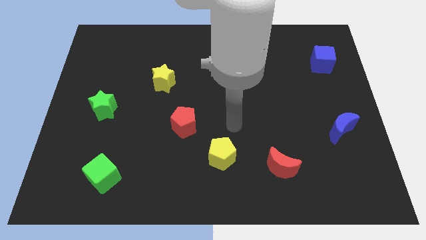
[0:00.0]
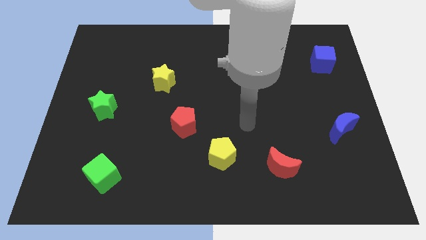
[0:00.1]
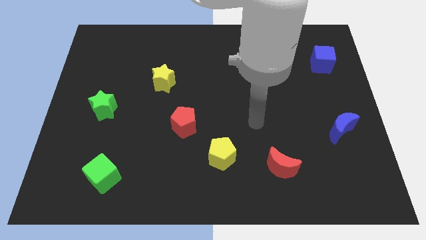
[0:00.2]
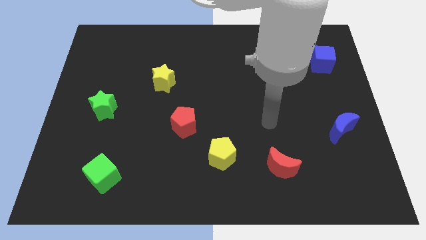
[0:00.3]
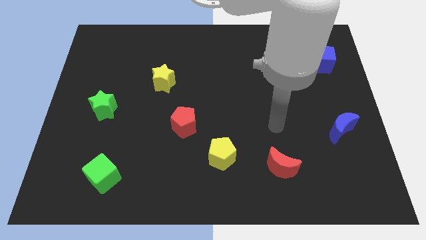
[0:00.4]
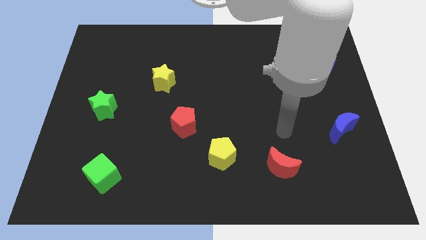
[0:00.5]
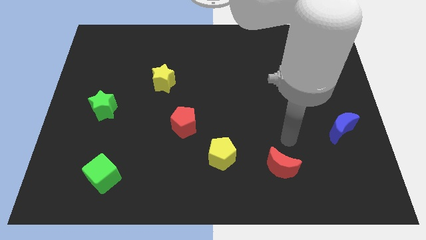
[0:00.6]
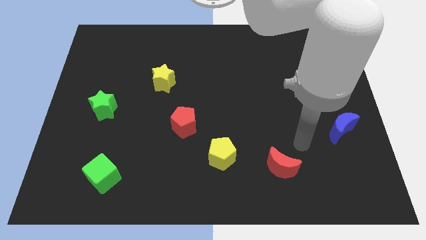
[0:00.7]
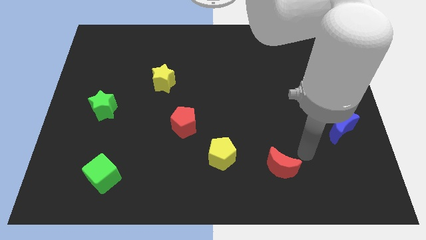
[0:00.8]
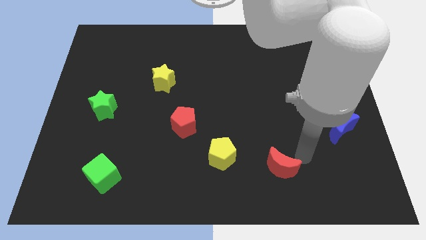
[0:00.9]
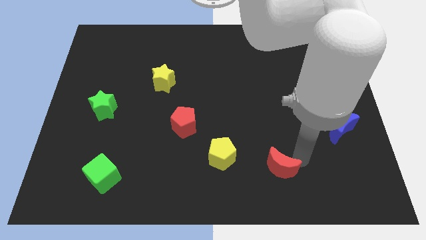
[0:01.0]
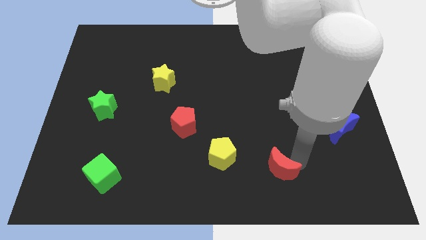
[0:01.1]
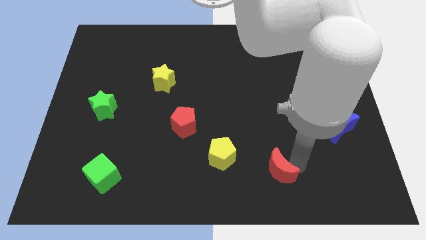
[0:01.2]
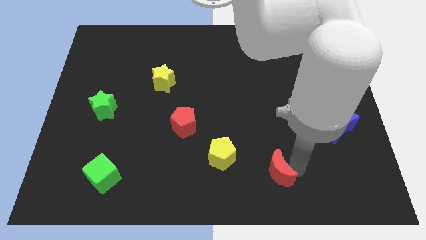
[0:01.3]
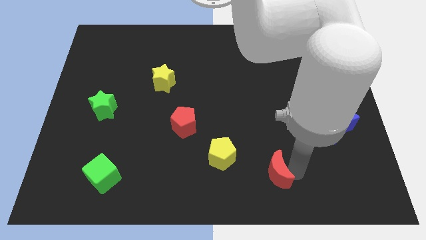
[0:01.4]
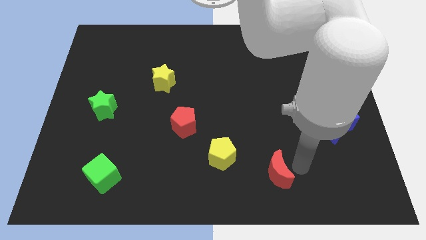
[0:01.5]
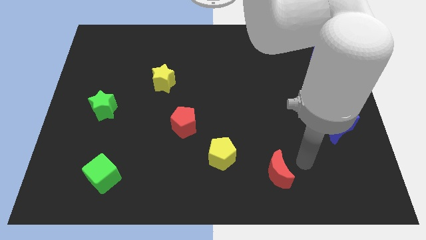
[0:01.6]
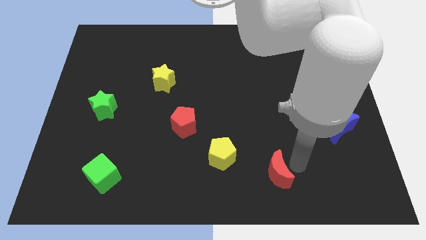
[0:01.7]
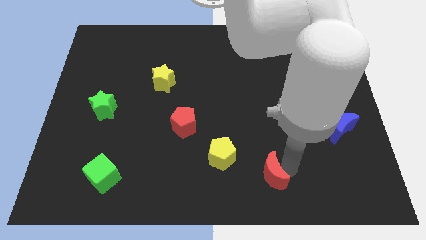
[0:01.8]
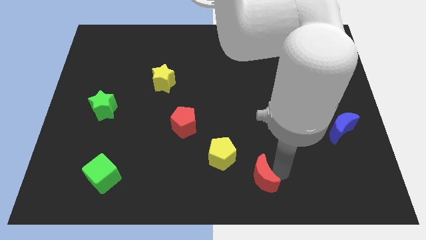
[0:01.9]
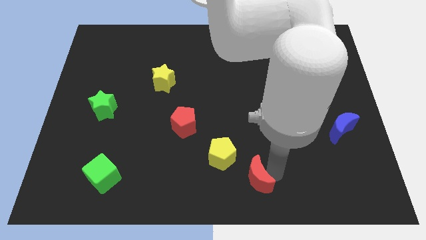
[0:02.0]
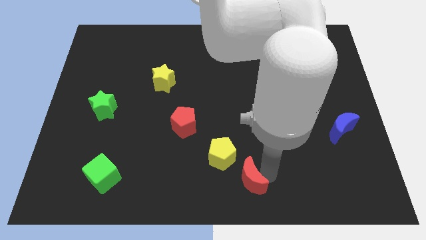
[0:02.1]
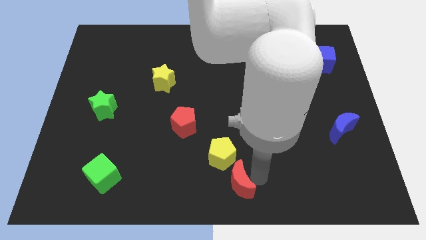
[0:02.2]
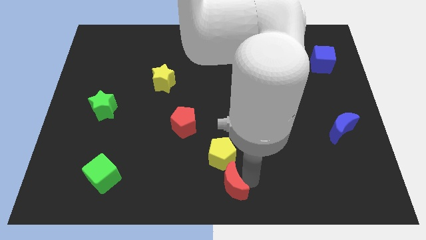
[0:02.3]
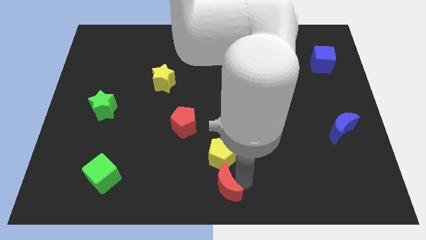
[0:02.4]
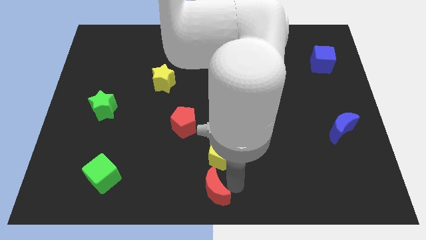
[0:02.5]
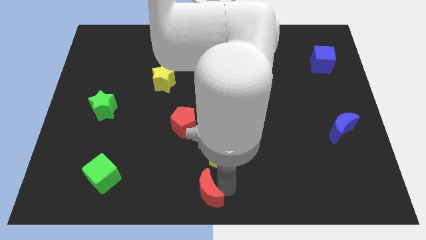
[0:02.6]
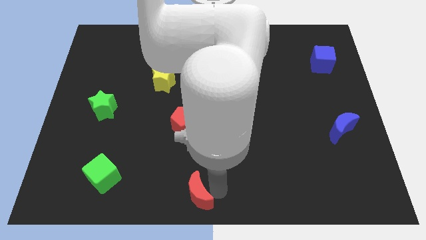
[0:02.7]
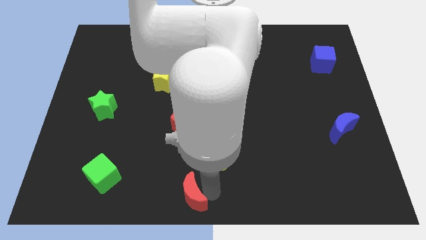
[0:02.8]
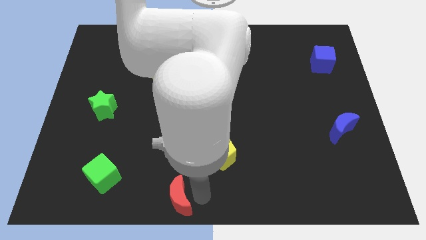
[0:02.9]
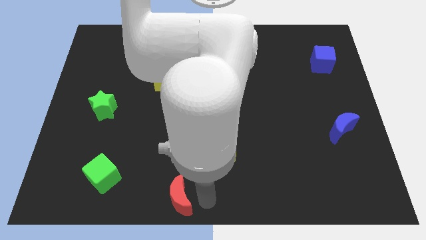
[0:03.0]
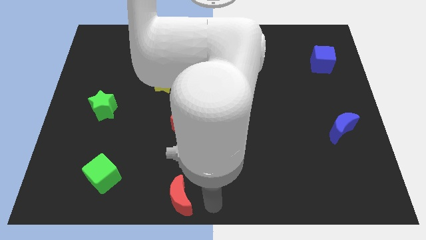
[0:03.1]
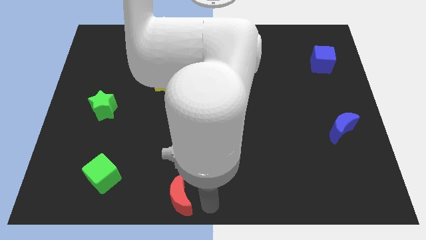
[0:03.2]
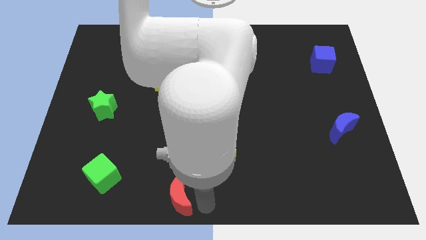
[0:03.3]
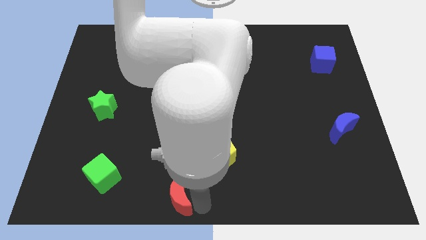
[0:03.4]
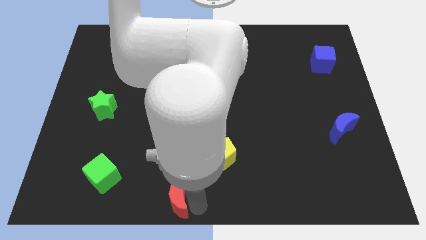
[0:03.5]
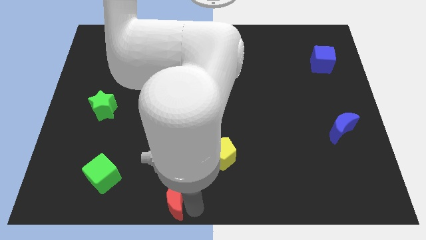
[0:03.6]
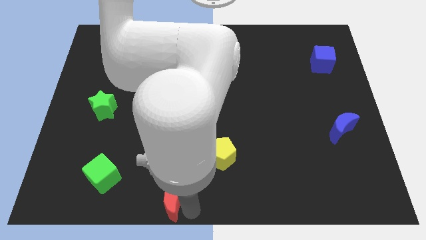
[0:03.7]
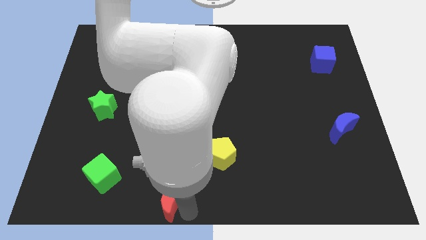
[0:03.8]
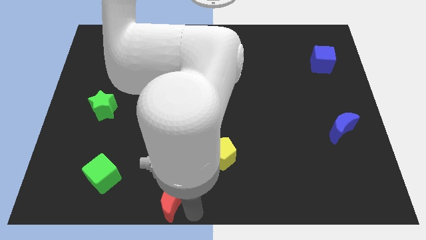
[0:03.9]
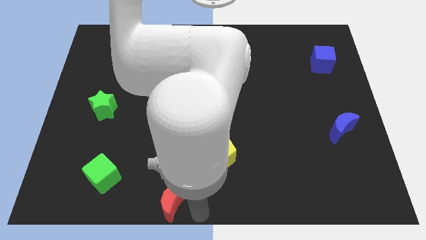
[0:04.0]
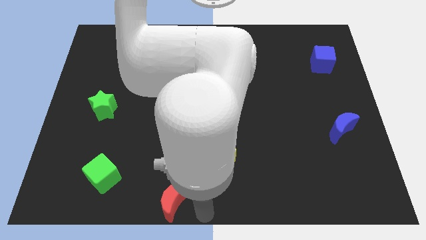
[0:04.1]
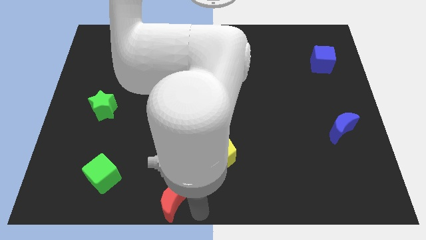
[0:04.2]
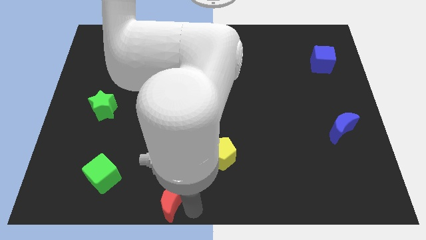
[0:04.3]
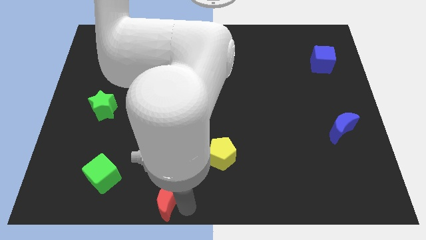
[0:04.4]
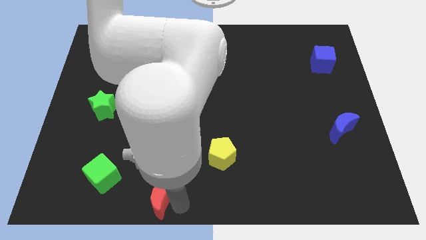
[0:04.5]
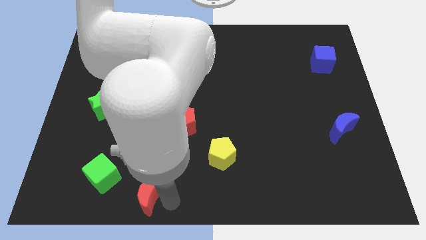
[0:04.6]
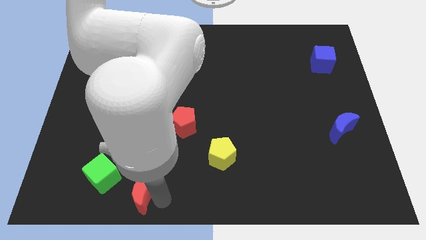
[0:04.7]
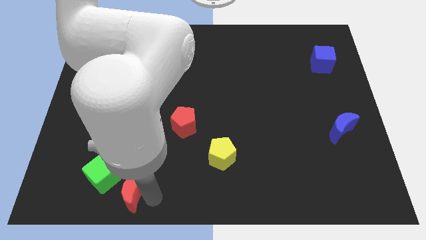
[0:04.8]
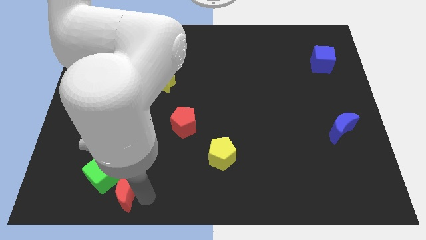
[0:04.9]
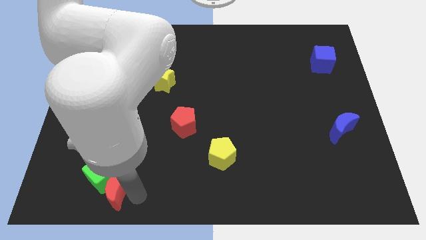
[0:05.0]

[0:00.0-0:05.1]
push the red moon next to the green cube

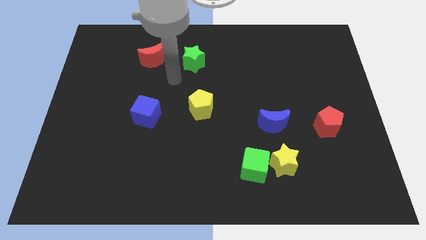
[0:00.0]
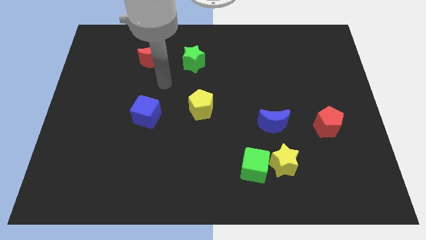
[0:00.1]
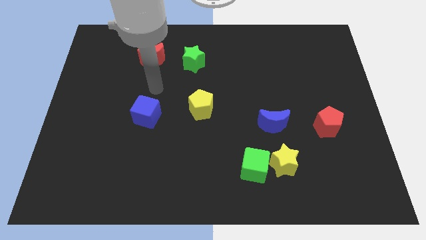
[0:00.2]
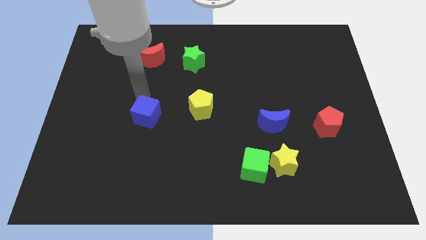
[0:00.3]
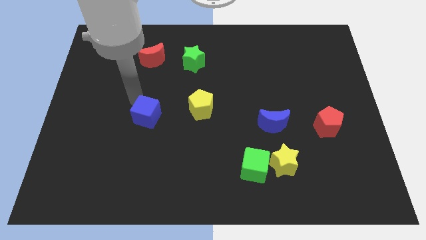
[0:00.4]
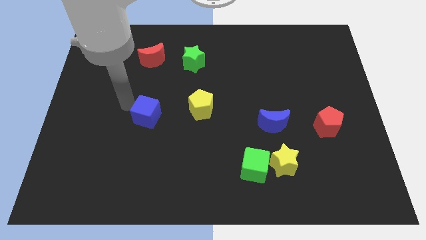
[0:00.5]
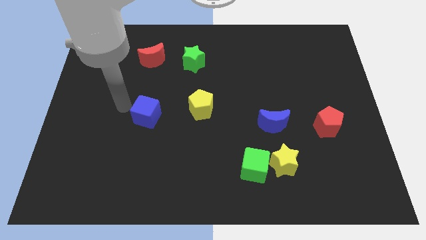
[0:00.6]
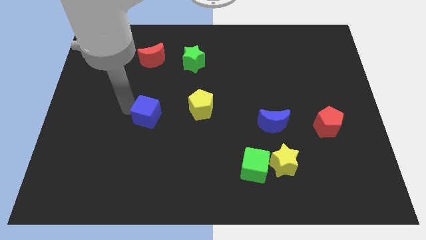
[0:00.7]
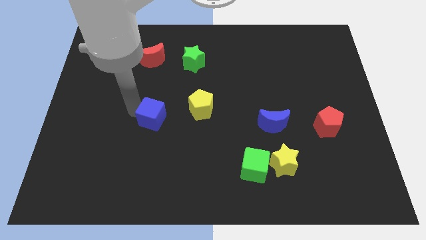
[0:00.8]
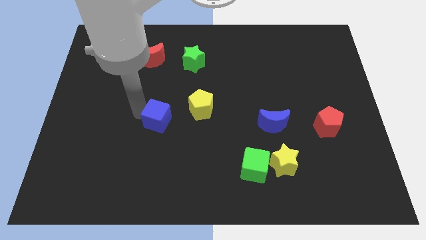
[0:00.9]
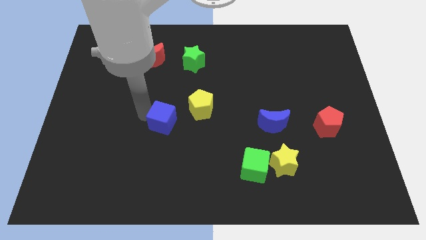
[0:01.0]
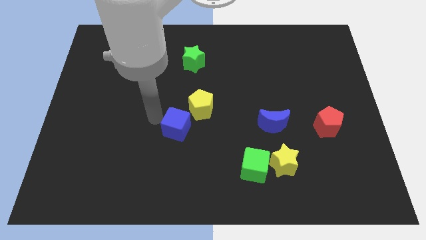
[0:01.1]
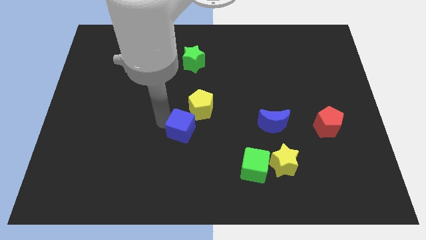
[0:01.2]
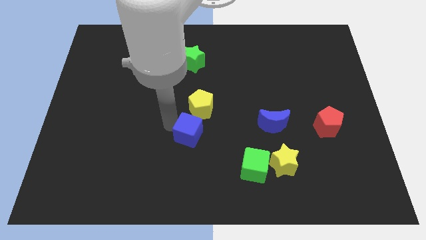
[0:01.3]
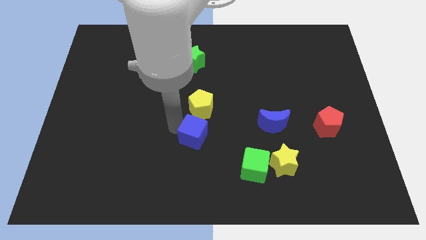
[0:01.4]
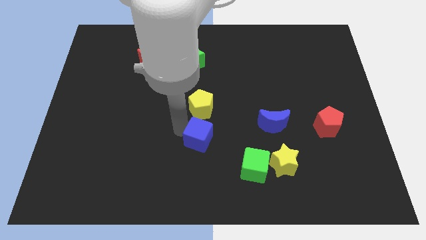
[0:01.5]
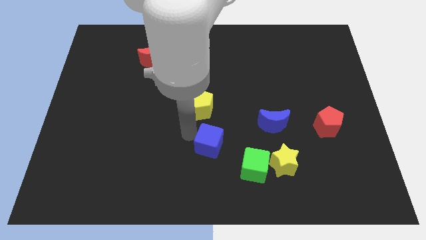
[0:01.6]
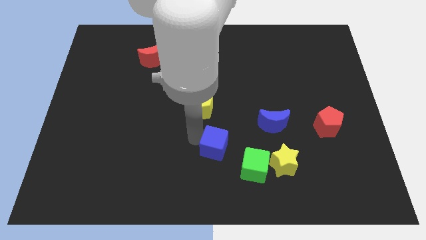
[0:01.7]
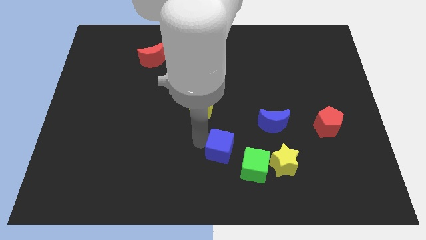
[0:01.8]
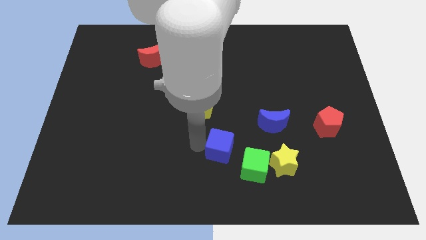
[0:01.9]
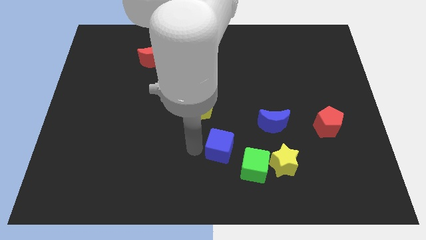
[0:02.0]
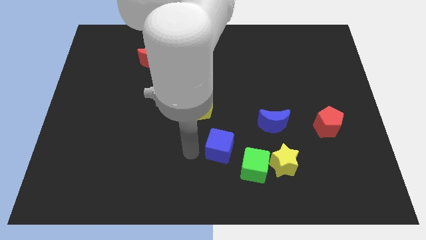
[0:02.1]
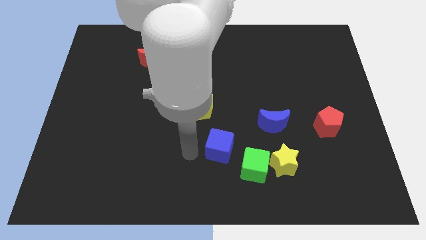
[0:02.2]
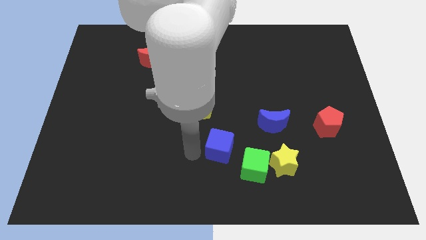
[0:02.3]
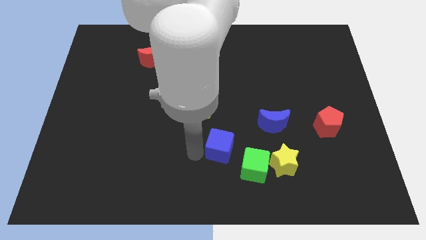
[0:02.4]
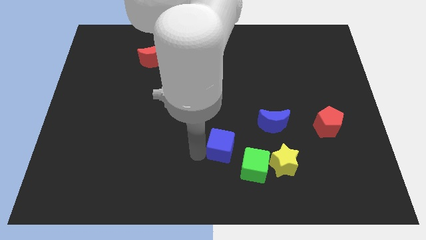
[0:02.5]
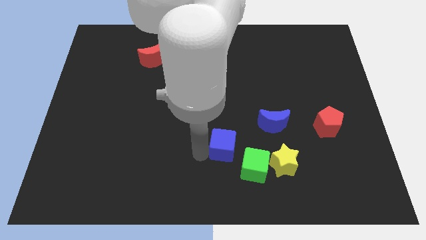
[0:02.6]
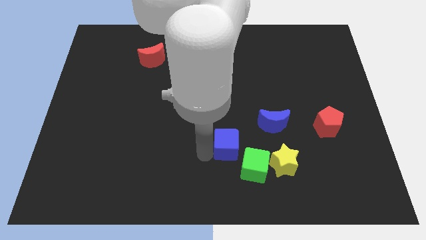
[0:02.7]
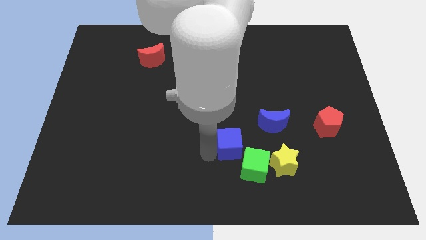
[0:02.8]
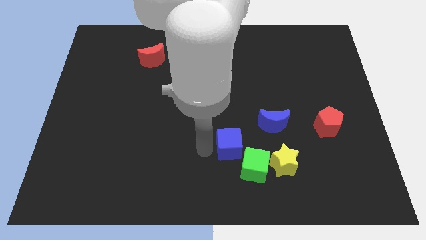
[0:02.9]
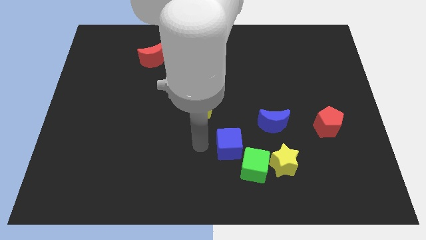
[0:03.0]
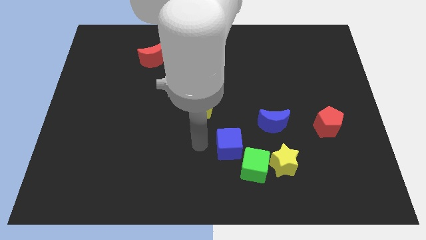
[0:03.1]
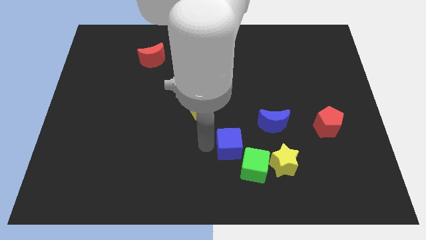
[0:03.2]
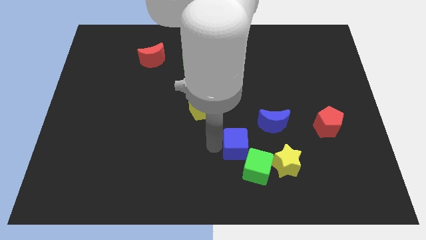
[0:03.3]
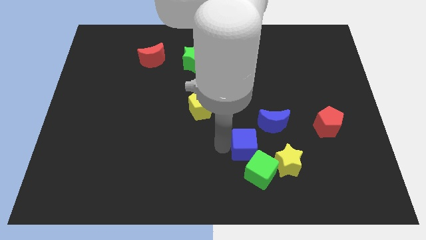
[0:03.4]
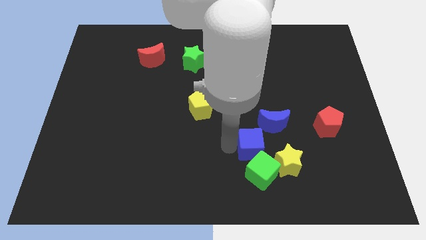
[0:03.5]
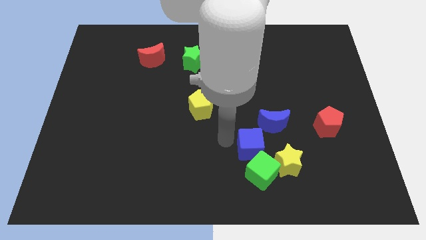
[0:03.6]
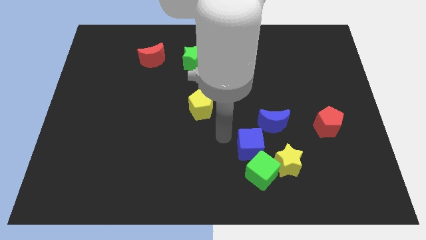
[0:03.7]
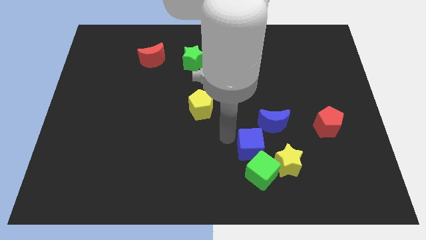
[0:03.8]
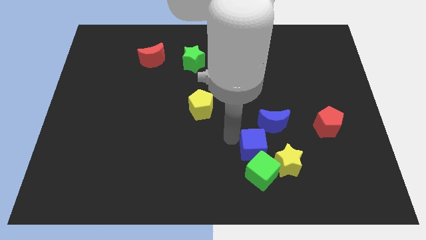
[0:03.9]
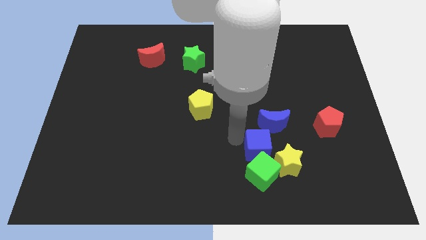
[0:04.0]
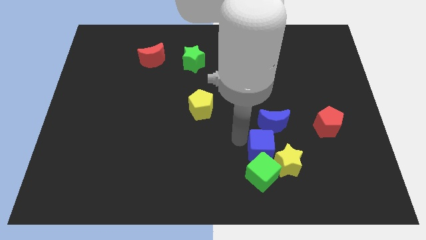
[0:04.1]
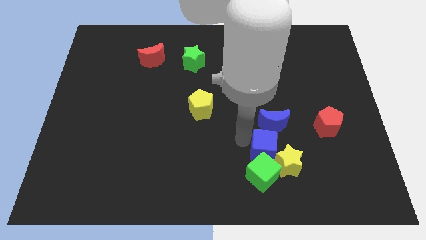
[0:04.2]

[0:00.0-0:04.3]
push the blue cube towards the yellow star
